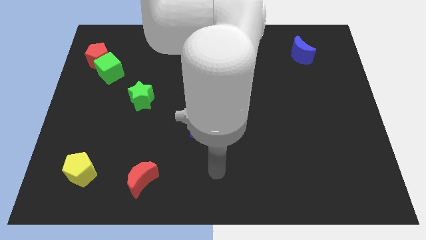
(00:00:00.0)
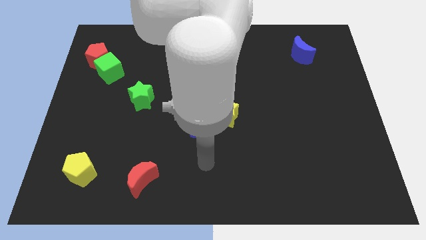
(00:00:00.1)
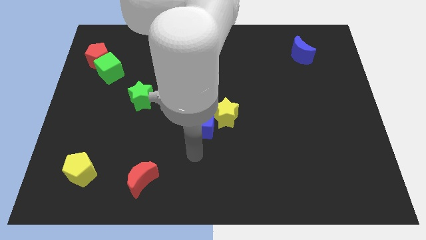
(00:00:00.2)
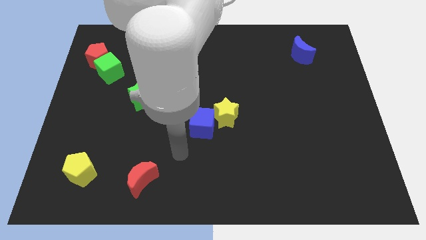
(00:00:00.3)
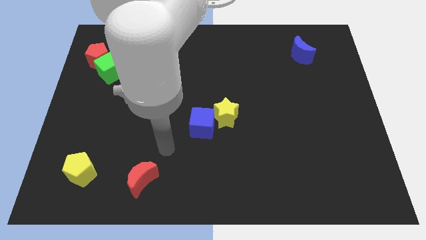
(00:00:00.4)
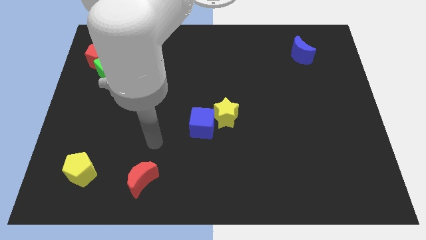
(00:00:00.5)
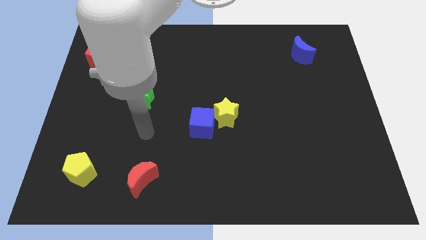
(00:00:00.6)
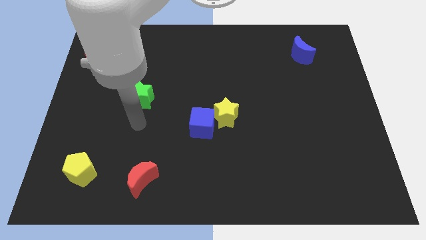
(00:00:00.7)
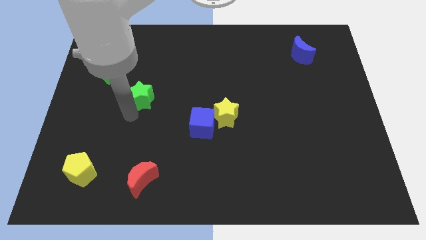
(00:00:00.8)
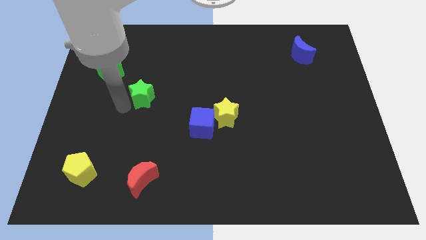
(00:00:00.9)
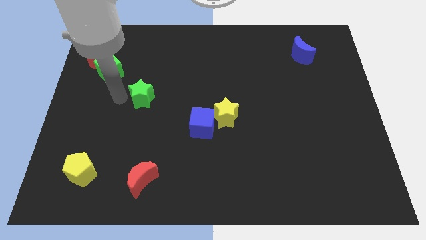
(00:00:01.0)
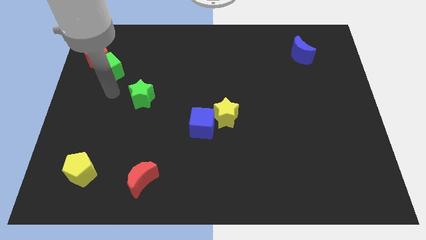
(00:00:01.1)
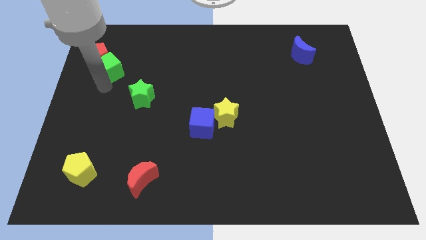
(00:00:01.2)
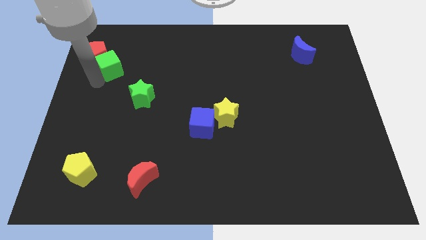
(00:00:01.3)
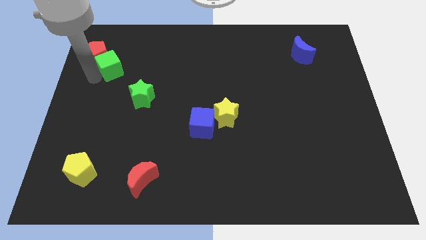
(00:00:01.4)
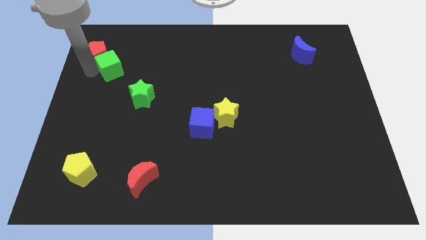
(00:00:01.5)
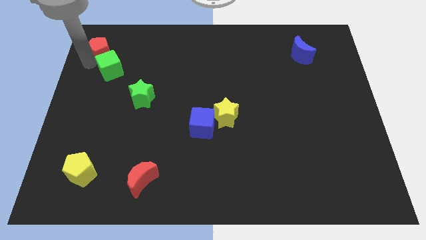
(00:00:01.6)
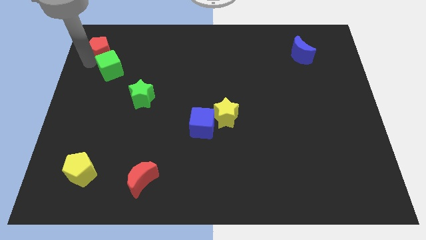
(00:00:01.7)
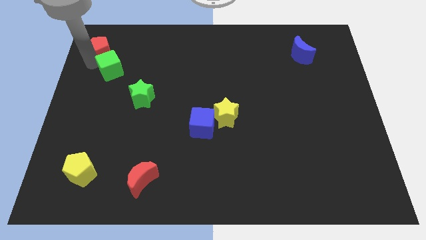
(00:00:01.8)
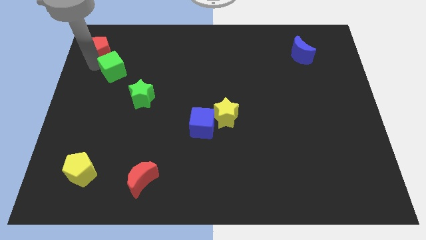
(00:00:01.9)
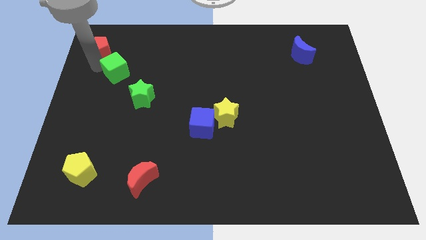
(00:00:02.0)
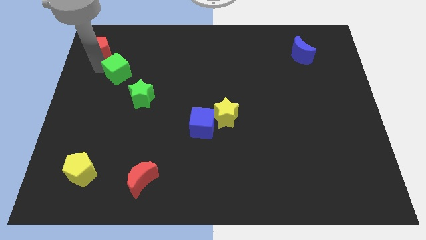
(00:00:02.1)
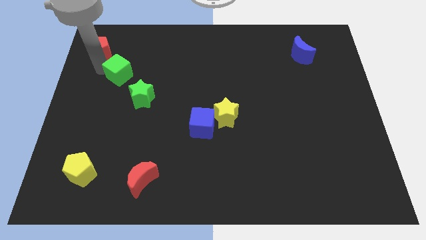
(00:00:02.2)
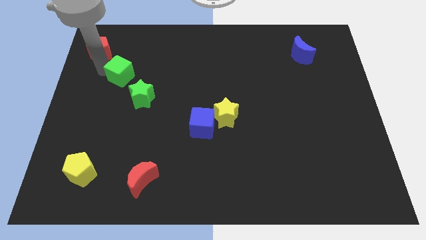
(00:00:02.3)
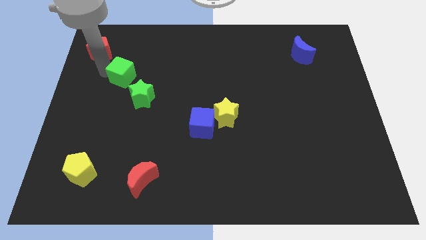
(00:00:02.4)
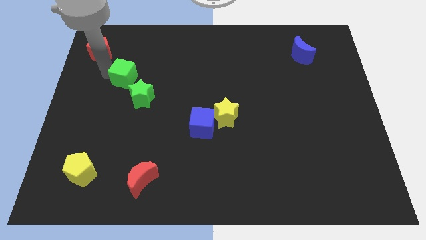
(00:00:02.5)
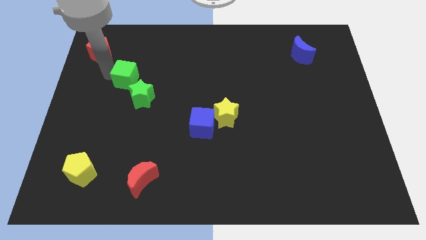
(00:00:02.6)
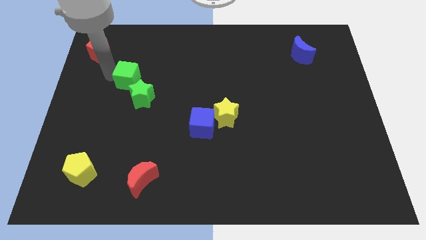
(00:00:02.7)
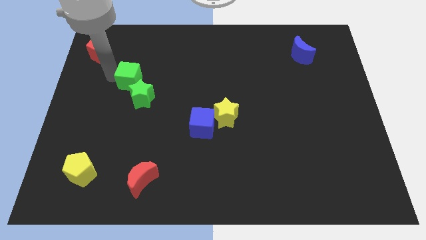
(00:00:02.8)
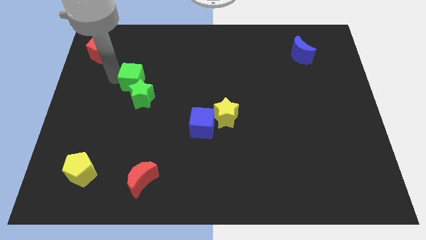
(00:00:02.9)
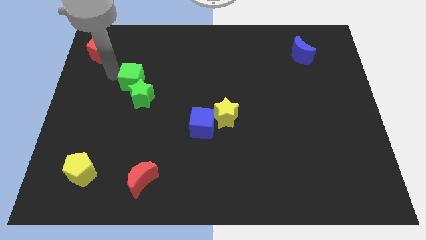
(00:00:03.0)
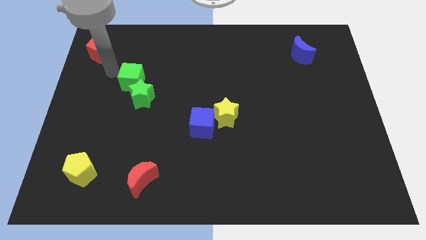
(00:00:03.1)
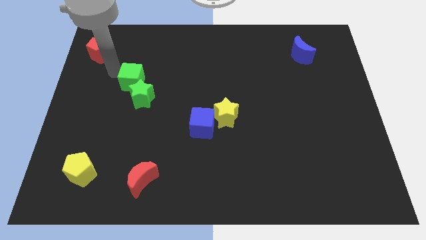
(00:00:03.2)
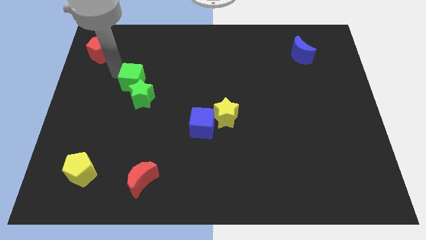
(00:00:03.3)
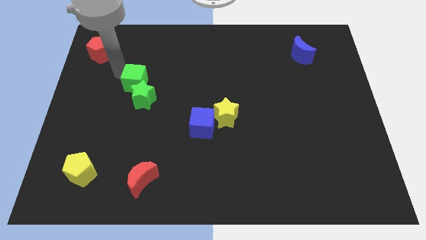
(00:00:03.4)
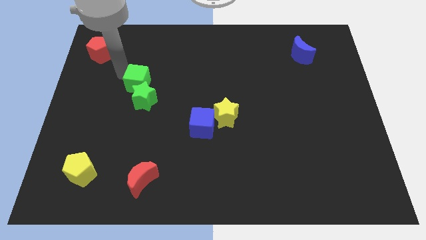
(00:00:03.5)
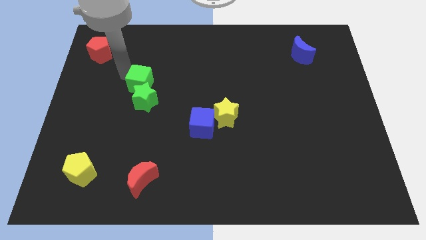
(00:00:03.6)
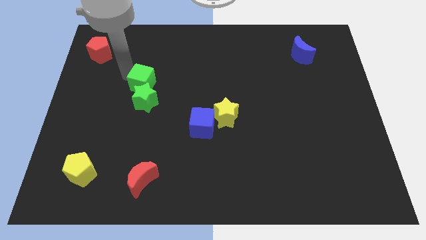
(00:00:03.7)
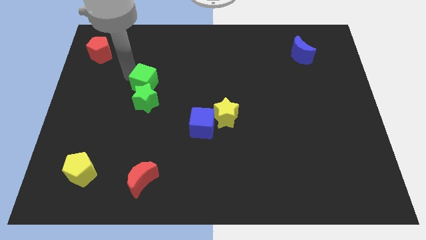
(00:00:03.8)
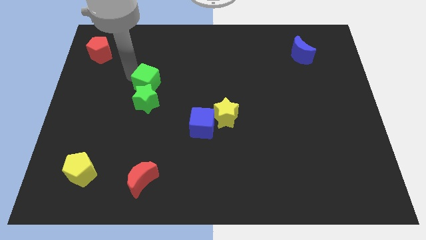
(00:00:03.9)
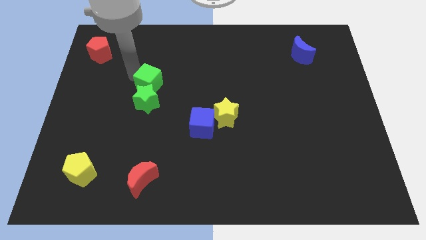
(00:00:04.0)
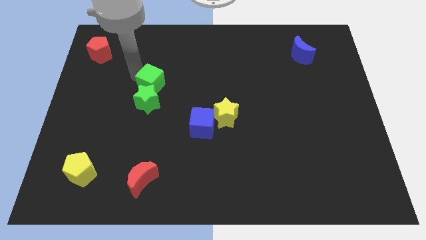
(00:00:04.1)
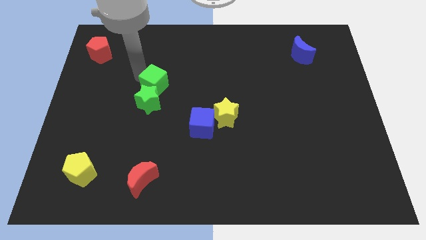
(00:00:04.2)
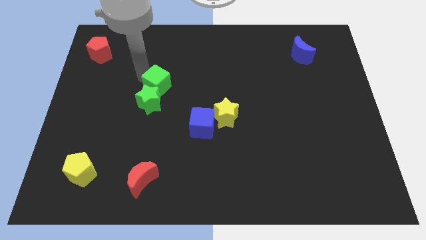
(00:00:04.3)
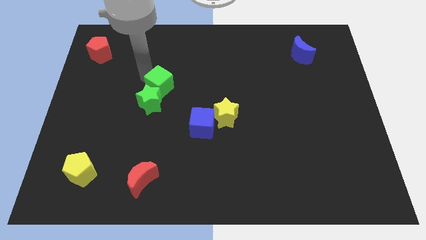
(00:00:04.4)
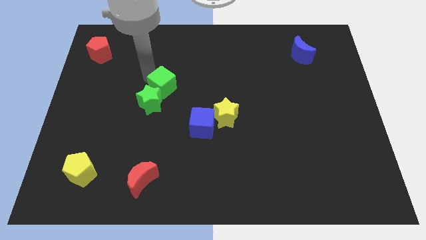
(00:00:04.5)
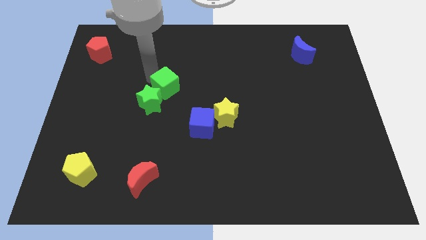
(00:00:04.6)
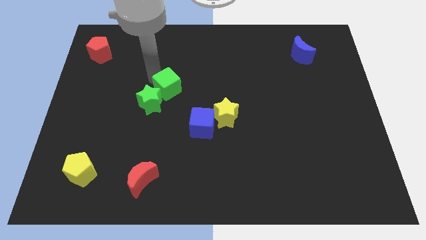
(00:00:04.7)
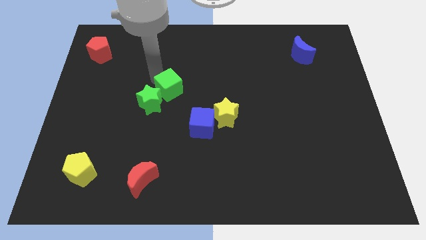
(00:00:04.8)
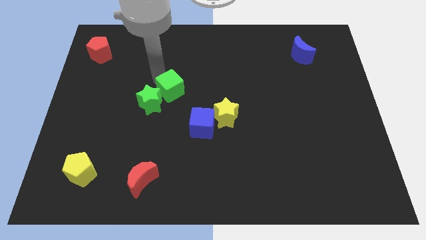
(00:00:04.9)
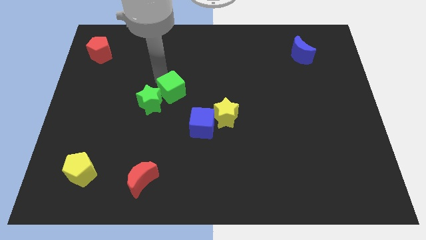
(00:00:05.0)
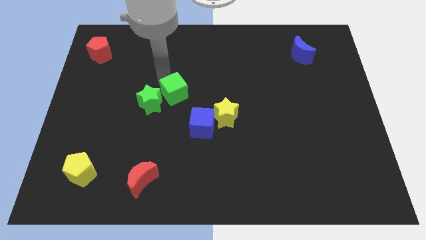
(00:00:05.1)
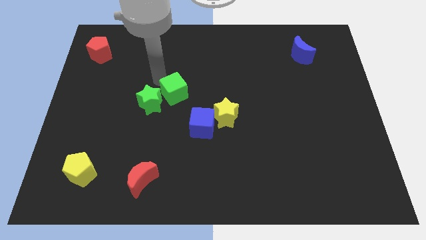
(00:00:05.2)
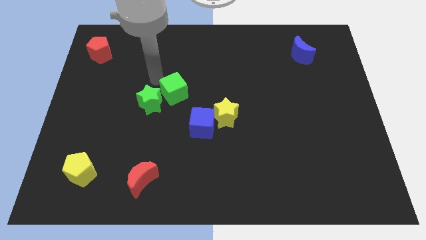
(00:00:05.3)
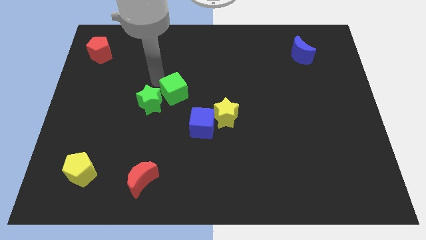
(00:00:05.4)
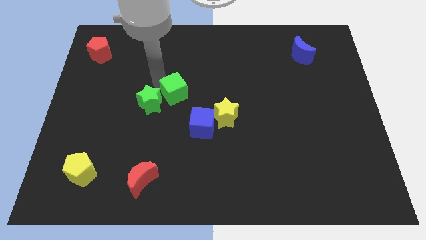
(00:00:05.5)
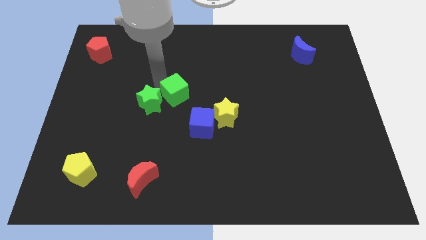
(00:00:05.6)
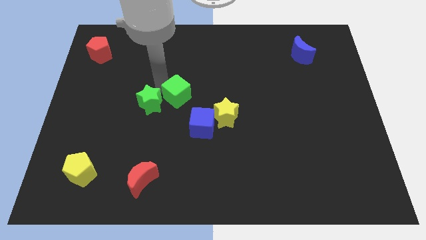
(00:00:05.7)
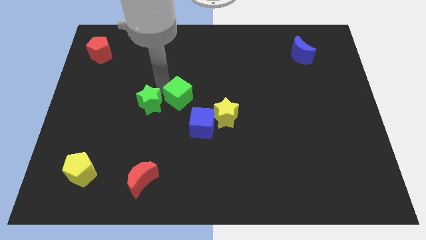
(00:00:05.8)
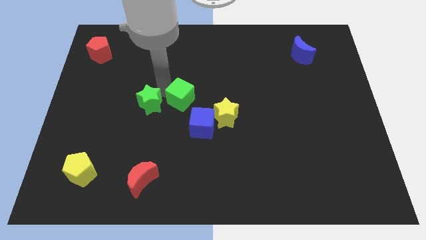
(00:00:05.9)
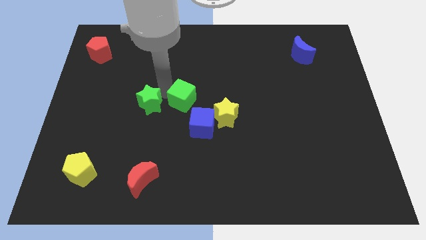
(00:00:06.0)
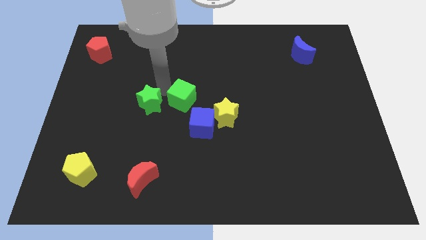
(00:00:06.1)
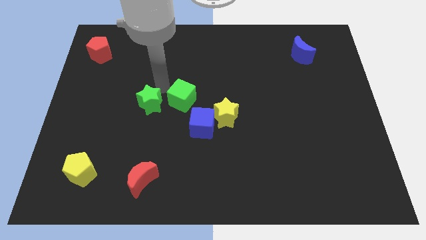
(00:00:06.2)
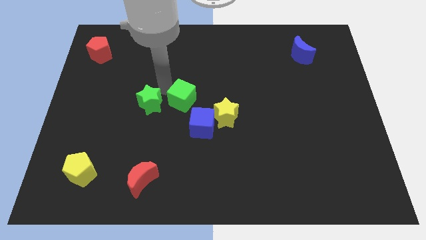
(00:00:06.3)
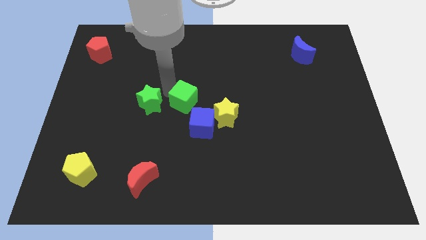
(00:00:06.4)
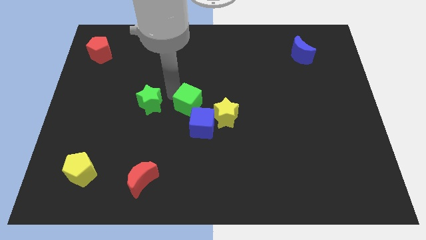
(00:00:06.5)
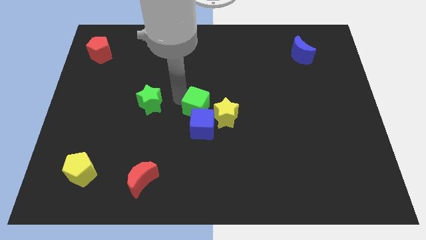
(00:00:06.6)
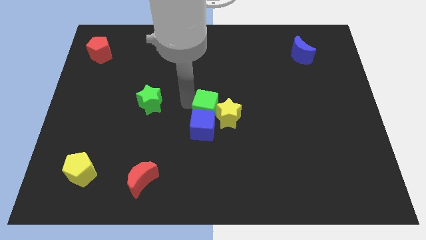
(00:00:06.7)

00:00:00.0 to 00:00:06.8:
move the green cube close to the yellow star
